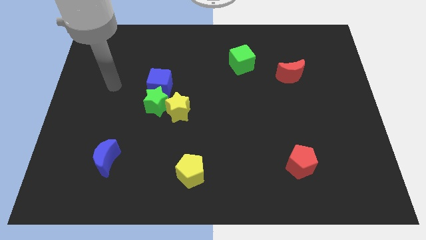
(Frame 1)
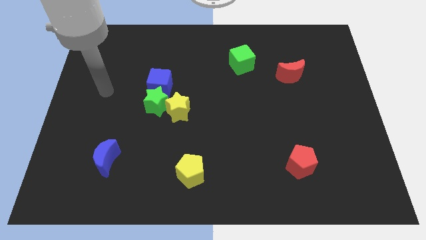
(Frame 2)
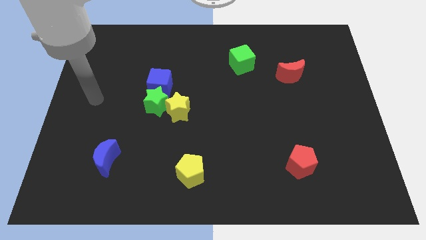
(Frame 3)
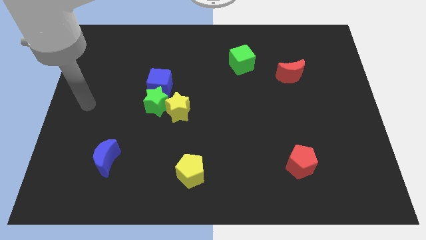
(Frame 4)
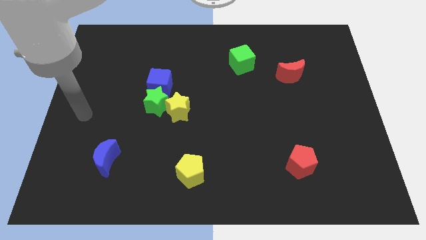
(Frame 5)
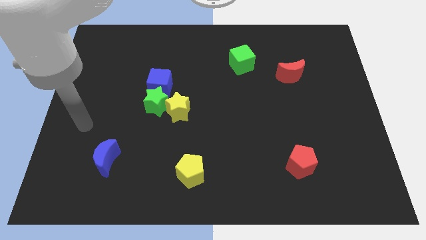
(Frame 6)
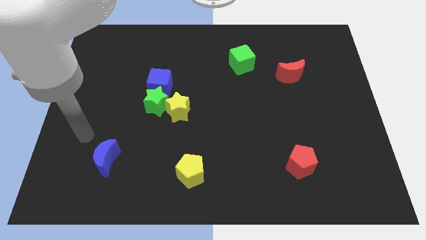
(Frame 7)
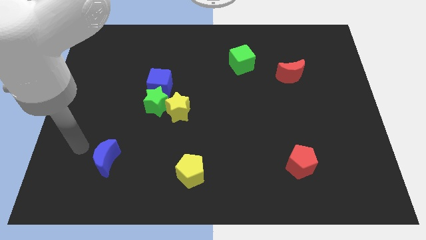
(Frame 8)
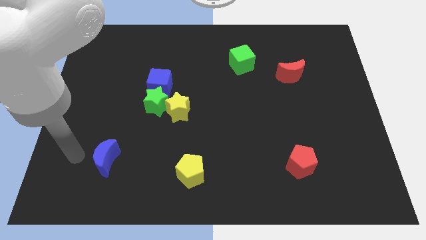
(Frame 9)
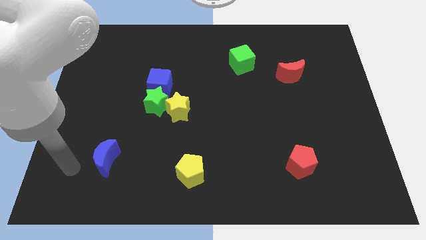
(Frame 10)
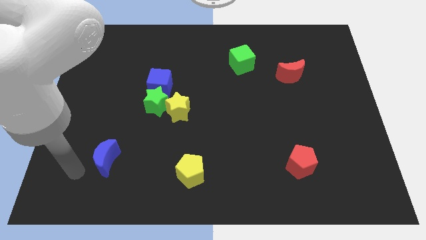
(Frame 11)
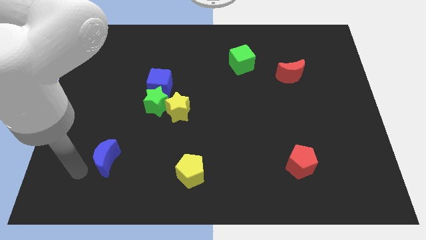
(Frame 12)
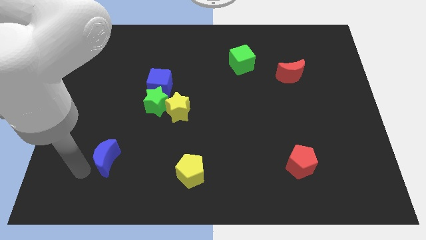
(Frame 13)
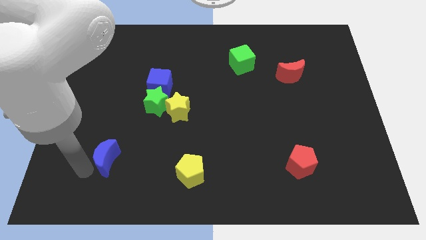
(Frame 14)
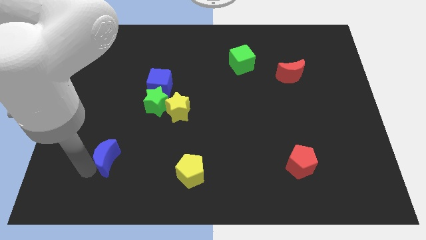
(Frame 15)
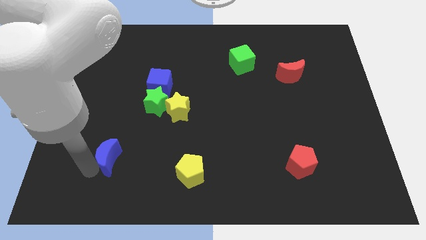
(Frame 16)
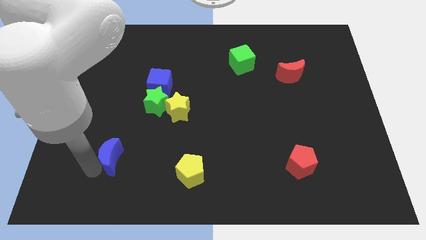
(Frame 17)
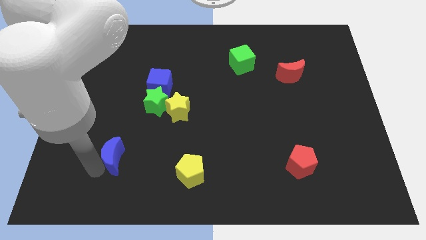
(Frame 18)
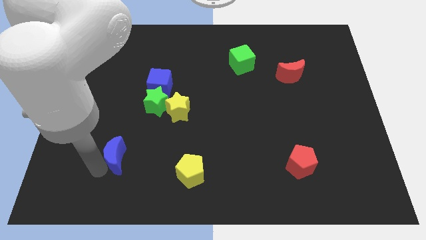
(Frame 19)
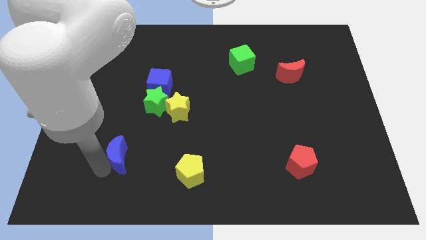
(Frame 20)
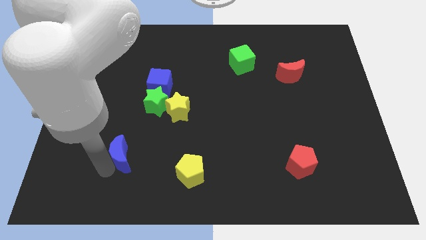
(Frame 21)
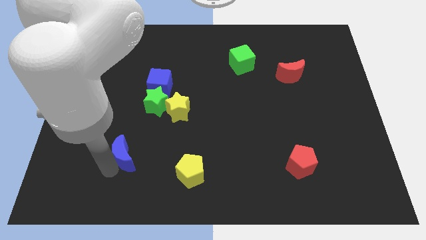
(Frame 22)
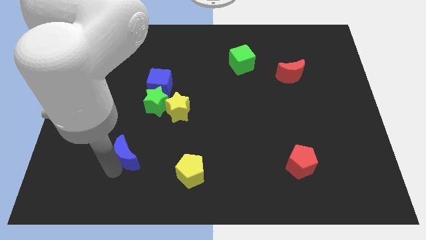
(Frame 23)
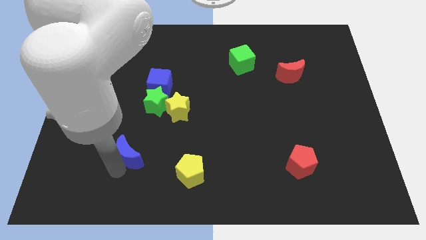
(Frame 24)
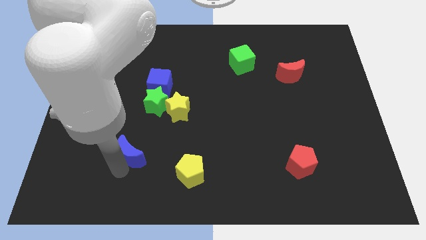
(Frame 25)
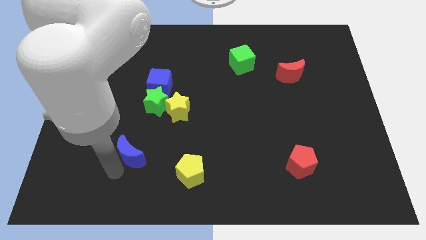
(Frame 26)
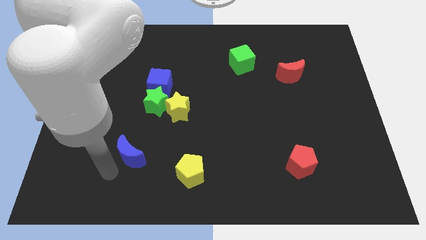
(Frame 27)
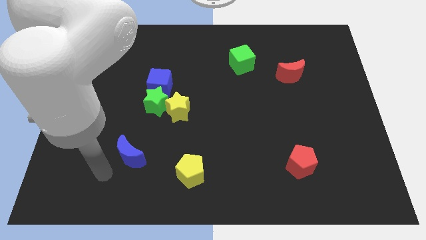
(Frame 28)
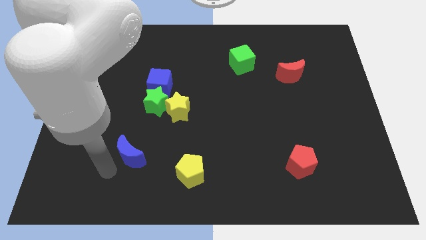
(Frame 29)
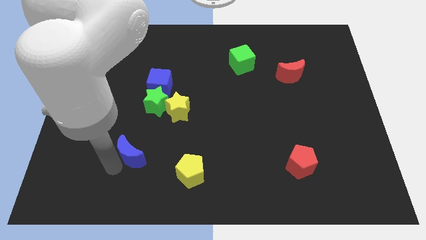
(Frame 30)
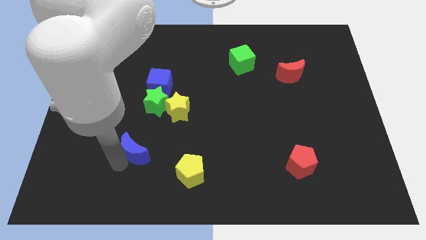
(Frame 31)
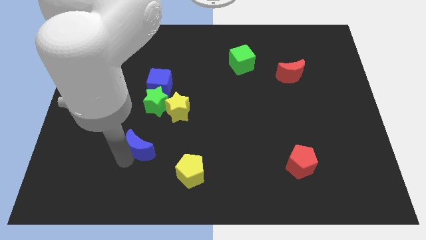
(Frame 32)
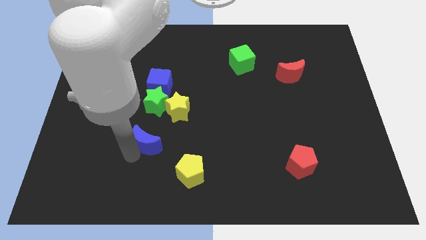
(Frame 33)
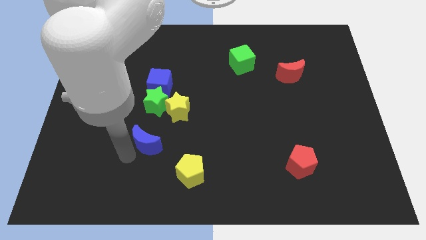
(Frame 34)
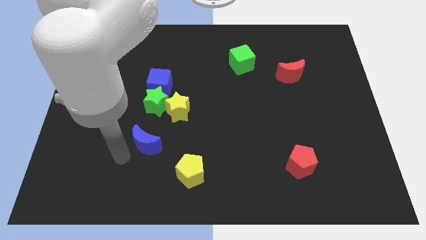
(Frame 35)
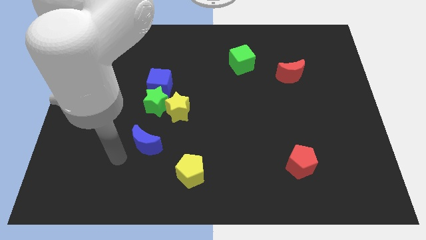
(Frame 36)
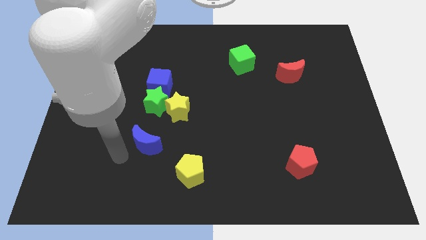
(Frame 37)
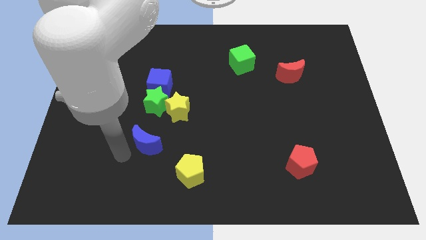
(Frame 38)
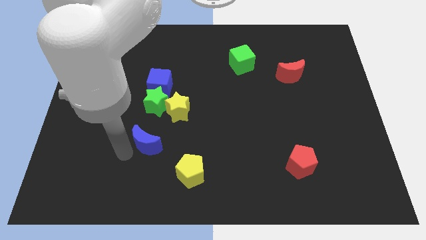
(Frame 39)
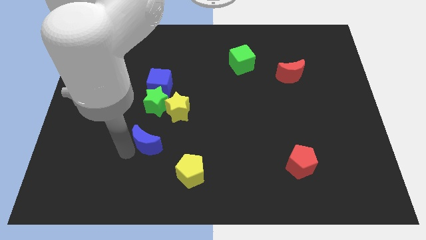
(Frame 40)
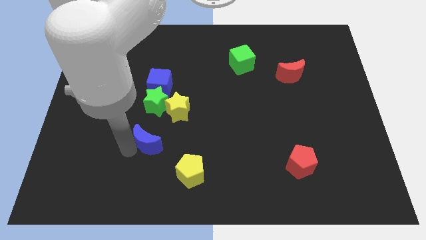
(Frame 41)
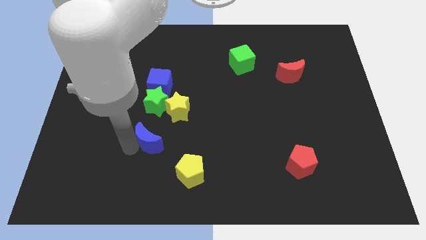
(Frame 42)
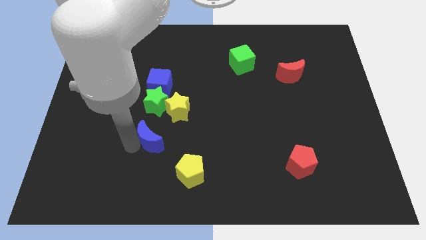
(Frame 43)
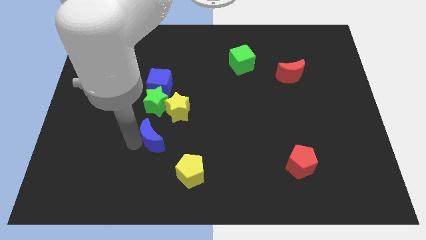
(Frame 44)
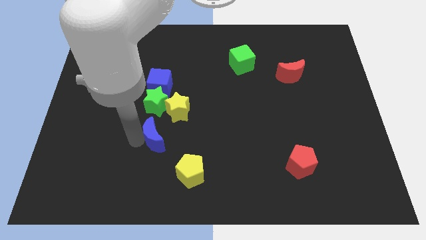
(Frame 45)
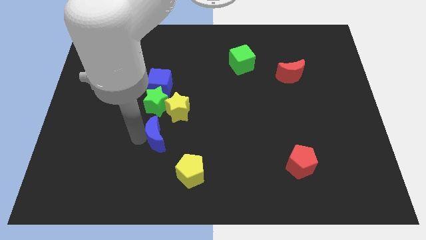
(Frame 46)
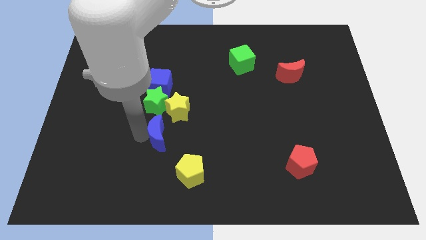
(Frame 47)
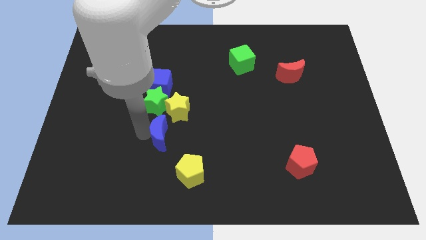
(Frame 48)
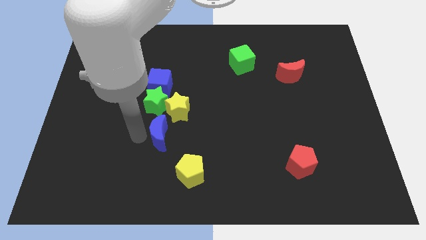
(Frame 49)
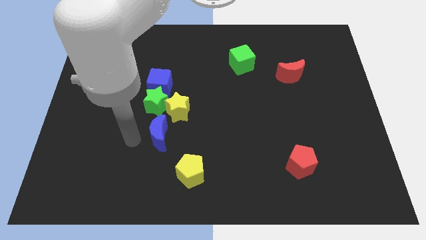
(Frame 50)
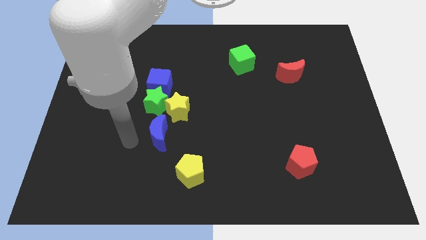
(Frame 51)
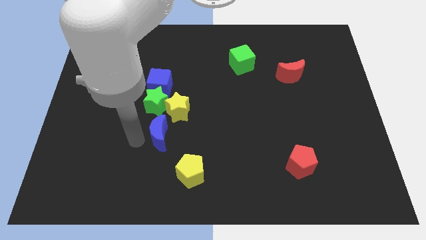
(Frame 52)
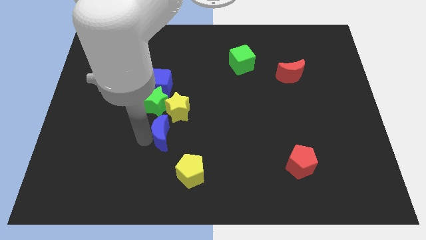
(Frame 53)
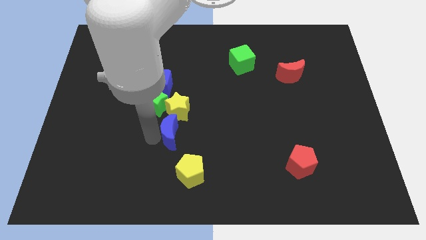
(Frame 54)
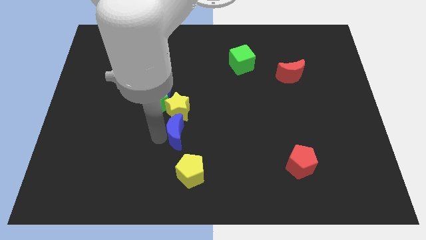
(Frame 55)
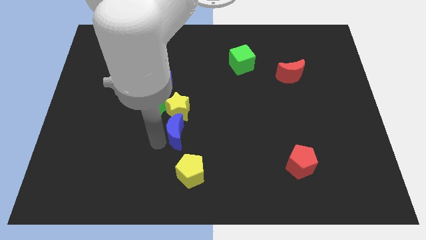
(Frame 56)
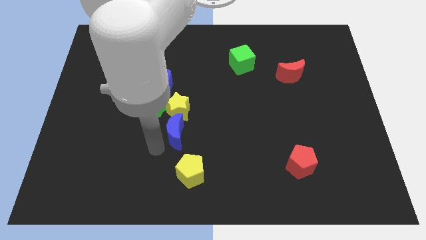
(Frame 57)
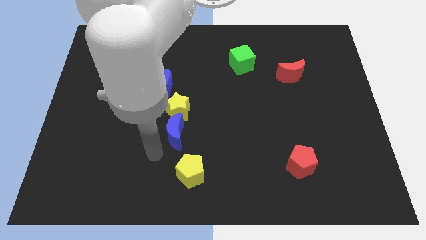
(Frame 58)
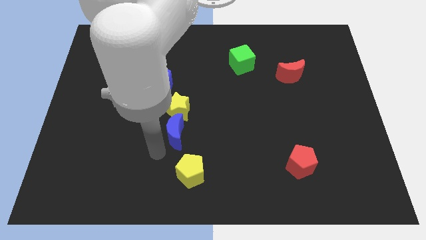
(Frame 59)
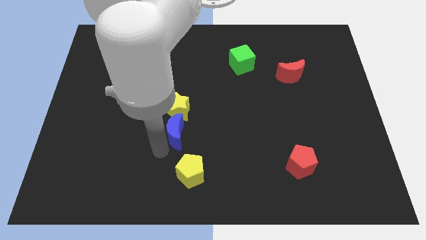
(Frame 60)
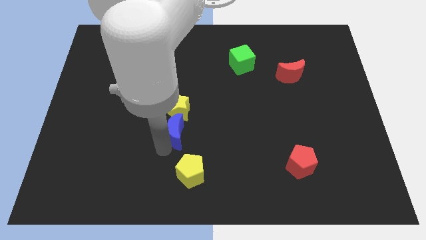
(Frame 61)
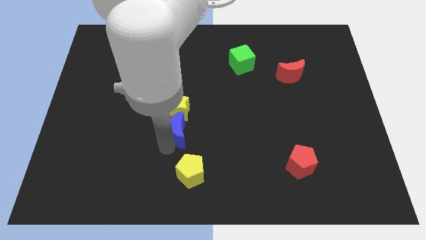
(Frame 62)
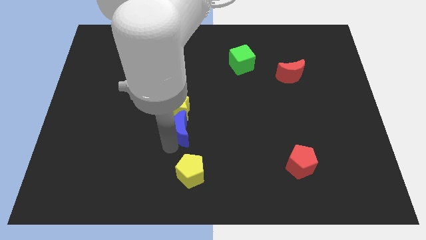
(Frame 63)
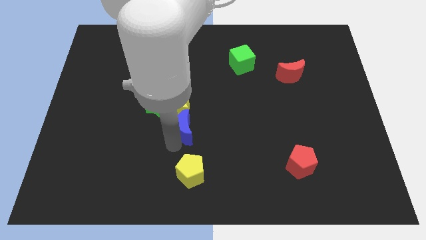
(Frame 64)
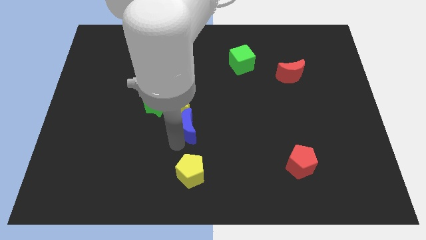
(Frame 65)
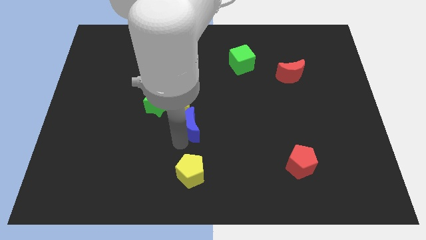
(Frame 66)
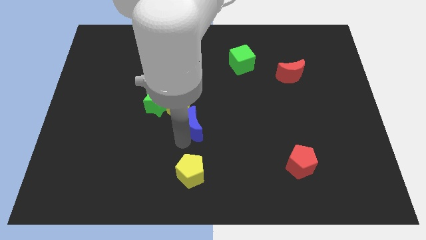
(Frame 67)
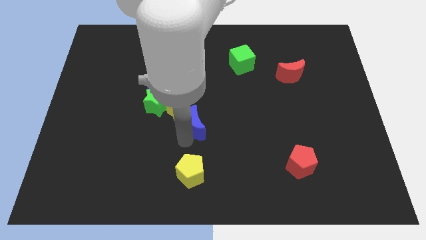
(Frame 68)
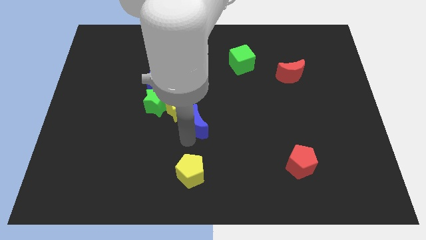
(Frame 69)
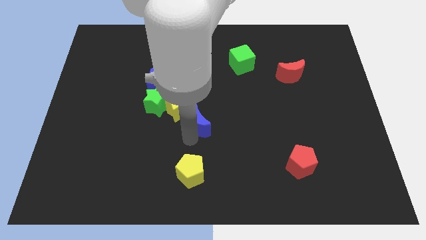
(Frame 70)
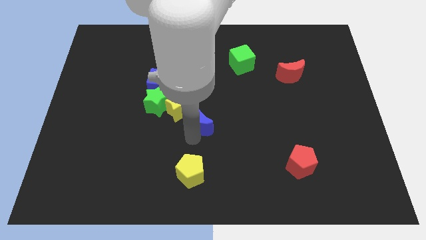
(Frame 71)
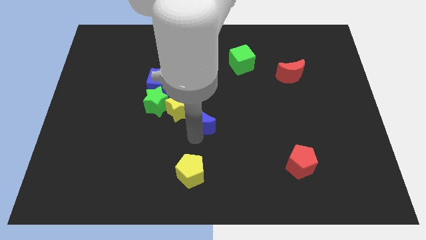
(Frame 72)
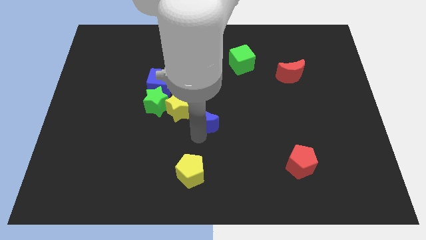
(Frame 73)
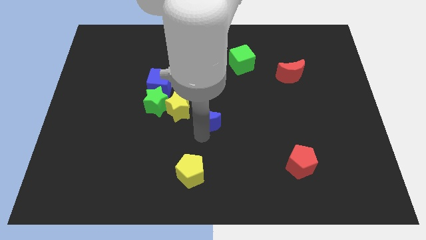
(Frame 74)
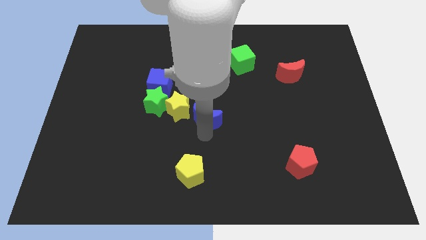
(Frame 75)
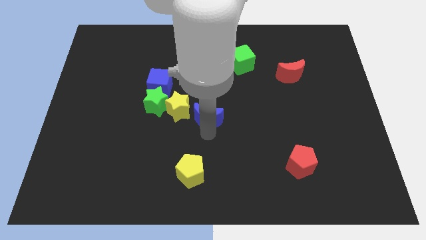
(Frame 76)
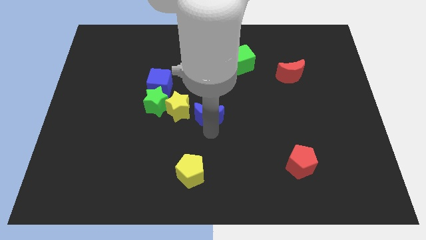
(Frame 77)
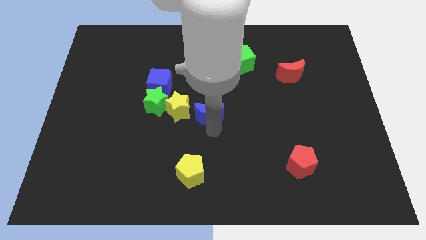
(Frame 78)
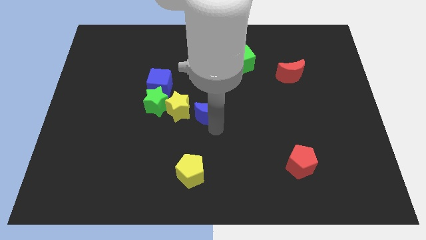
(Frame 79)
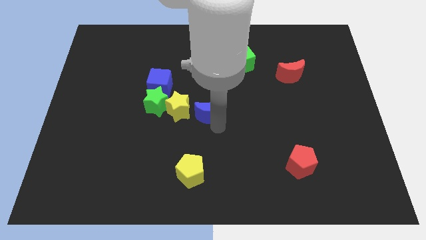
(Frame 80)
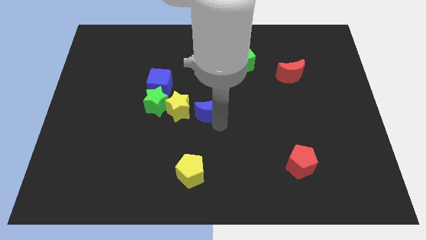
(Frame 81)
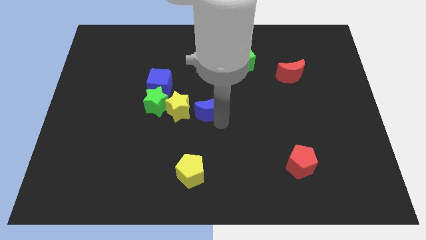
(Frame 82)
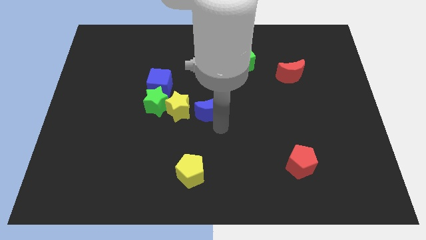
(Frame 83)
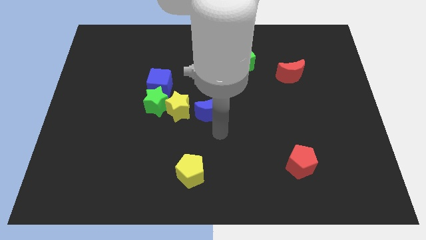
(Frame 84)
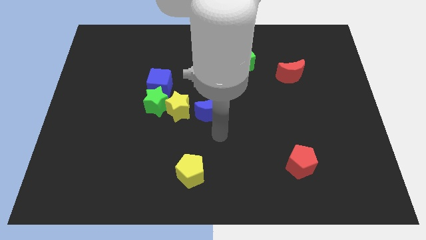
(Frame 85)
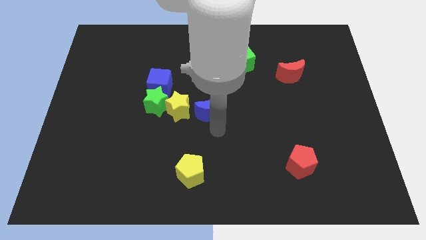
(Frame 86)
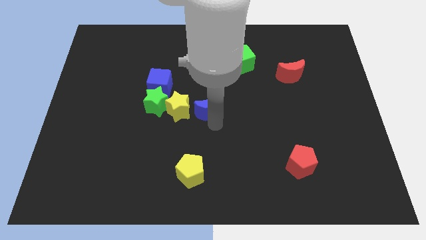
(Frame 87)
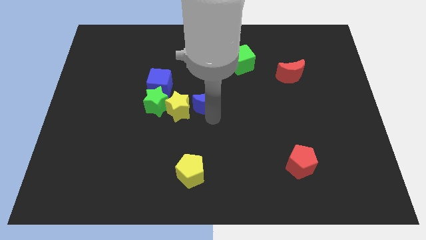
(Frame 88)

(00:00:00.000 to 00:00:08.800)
put the blue moon to the top right side of the yellow star
